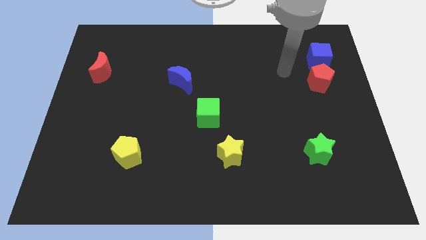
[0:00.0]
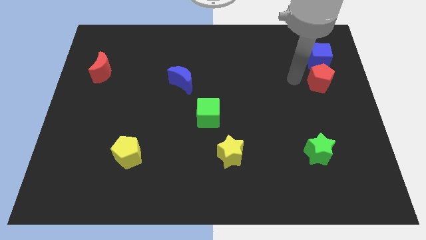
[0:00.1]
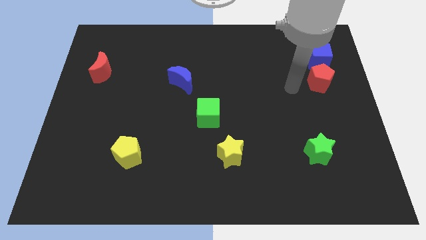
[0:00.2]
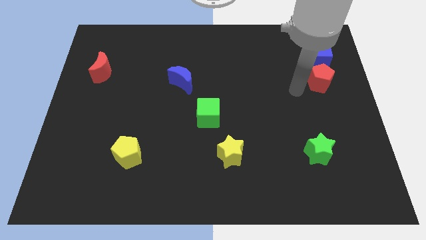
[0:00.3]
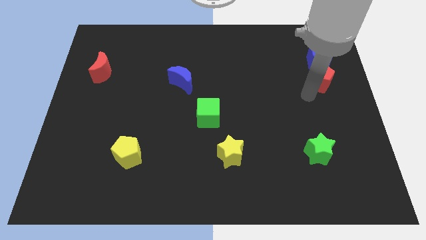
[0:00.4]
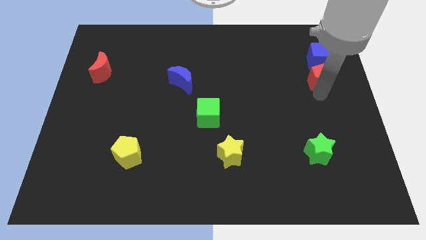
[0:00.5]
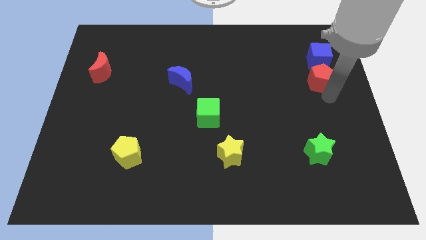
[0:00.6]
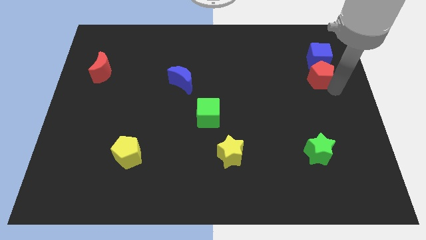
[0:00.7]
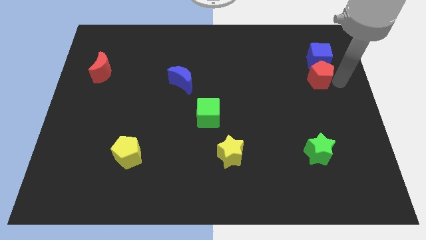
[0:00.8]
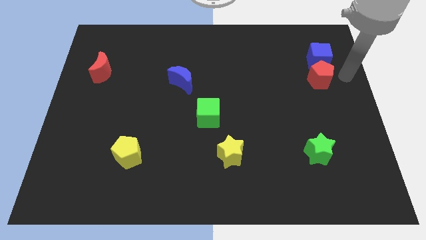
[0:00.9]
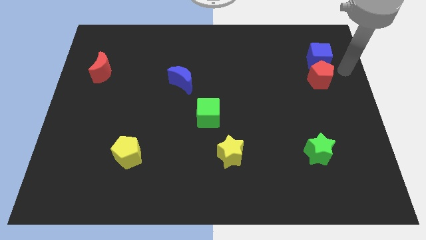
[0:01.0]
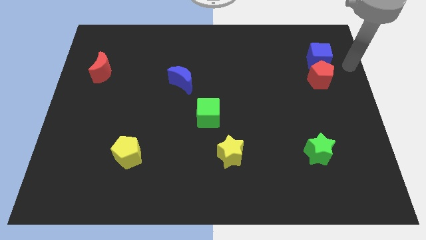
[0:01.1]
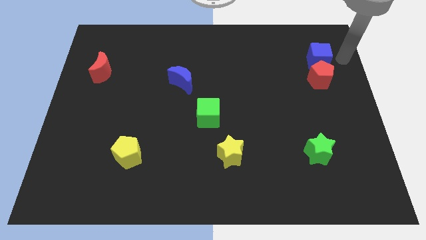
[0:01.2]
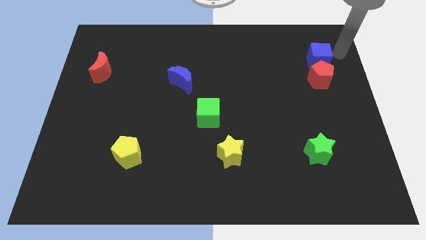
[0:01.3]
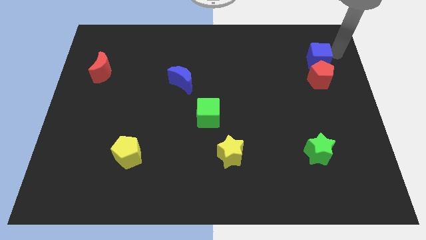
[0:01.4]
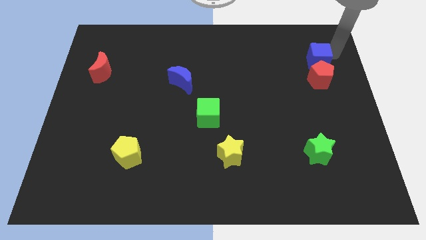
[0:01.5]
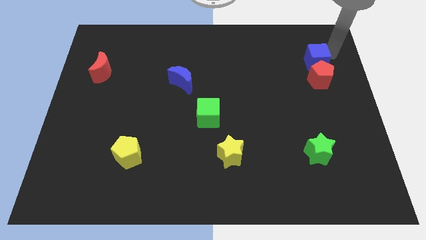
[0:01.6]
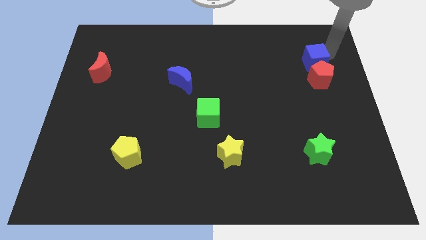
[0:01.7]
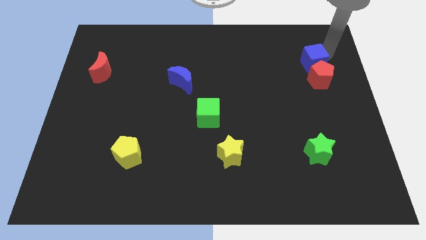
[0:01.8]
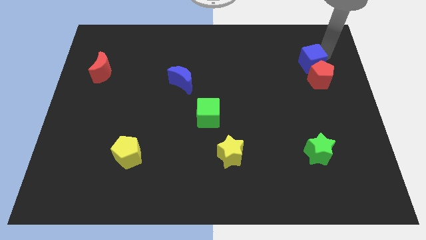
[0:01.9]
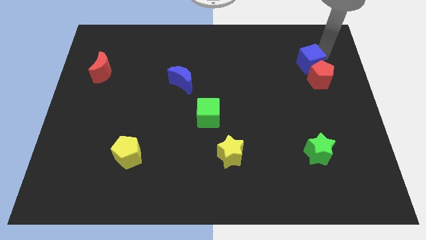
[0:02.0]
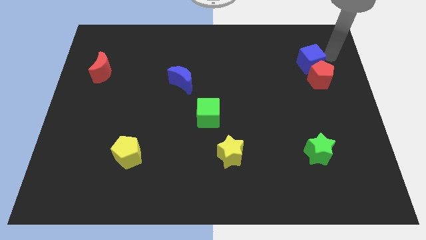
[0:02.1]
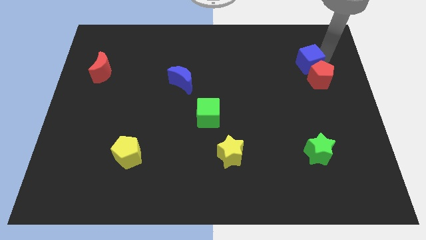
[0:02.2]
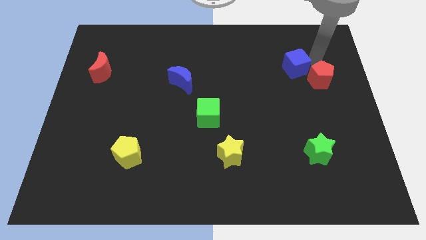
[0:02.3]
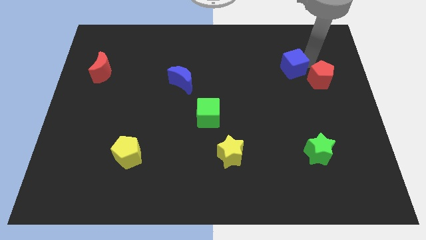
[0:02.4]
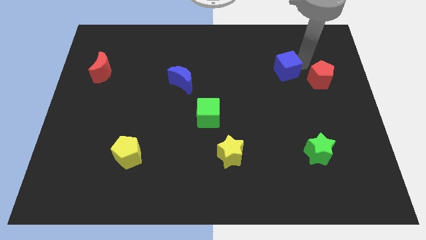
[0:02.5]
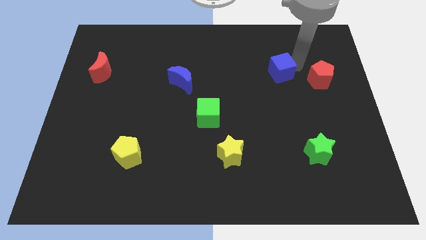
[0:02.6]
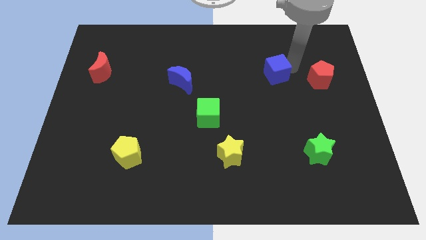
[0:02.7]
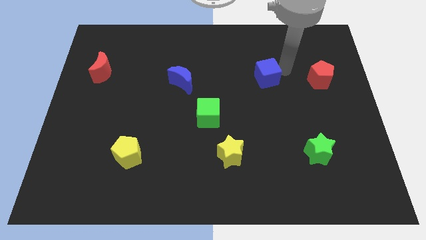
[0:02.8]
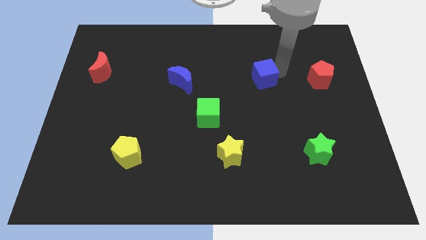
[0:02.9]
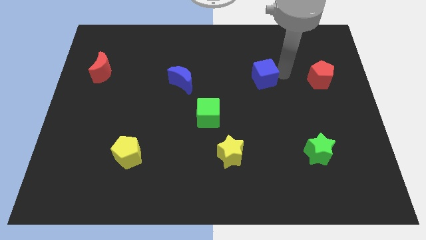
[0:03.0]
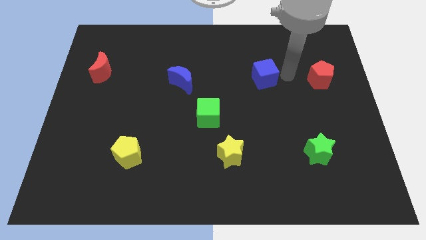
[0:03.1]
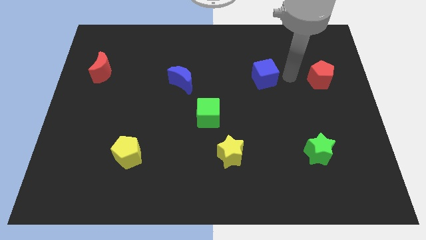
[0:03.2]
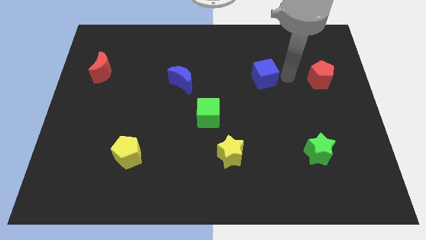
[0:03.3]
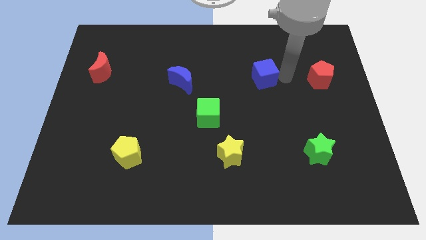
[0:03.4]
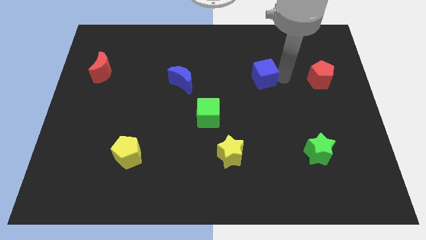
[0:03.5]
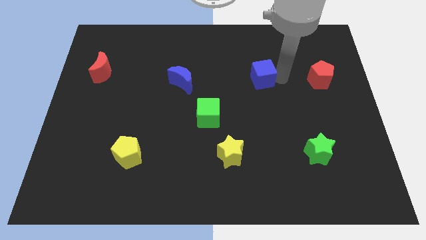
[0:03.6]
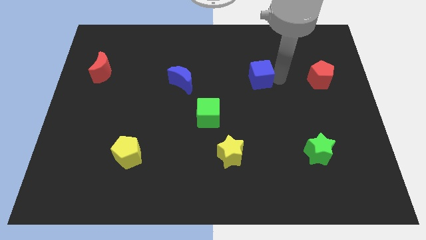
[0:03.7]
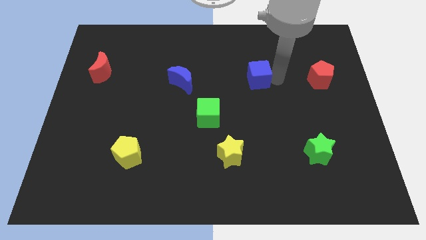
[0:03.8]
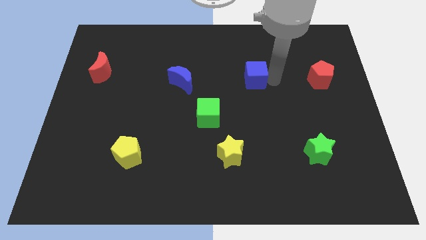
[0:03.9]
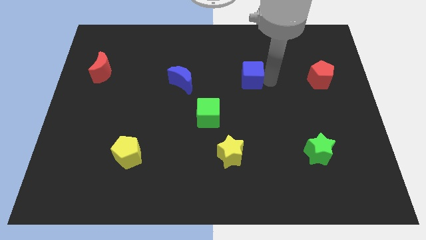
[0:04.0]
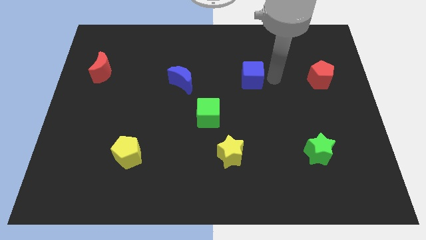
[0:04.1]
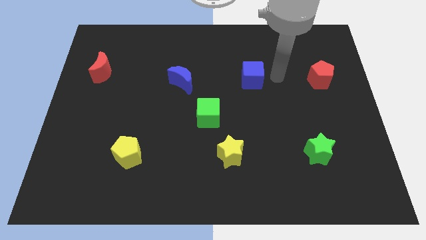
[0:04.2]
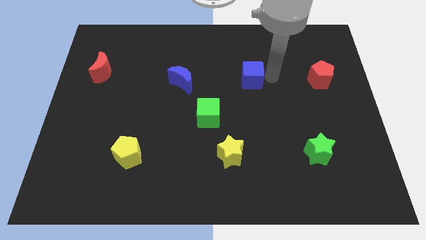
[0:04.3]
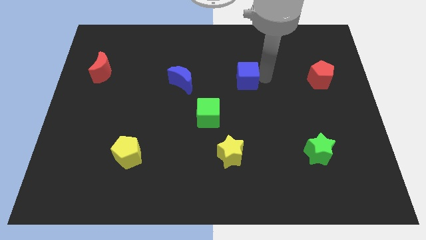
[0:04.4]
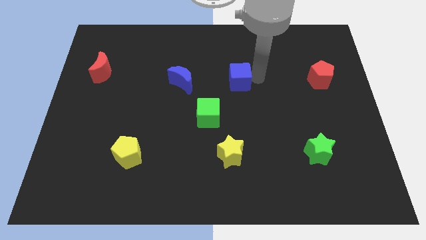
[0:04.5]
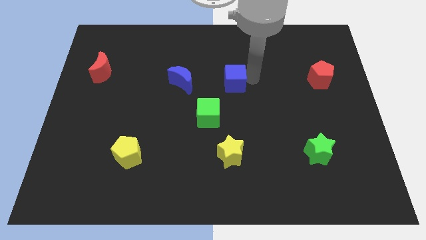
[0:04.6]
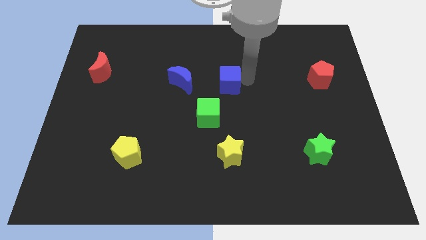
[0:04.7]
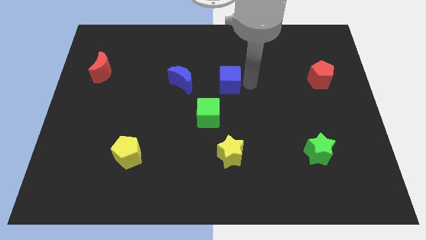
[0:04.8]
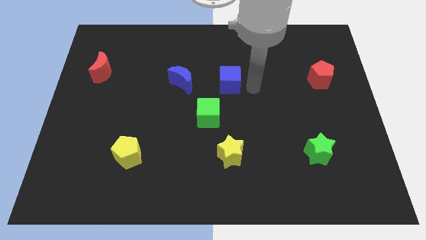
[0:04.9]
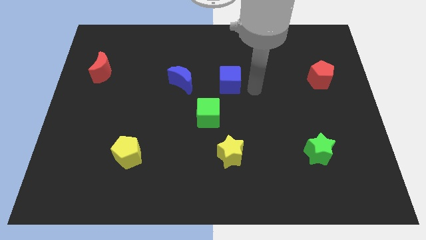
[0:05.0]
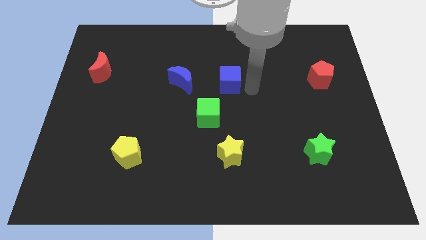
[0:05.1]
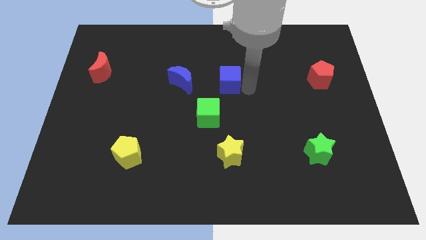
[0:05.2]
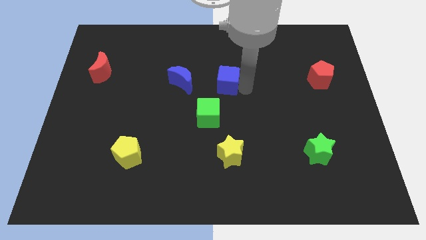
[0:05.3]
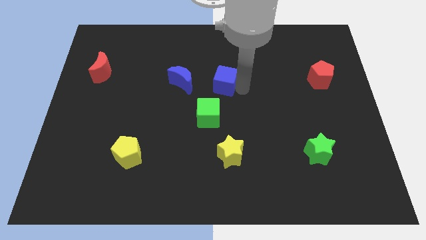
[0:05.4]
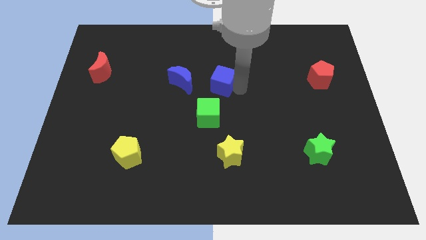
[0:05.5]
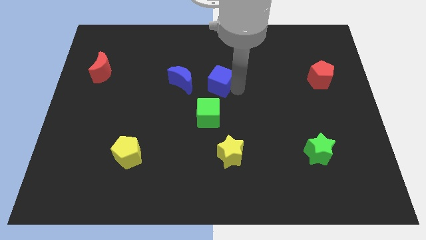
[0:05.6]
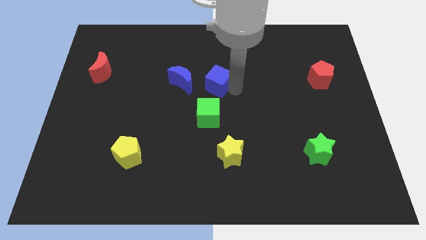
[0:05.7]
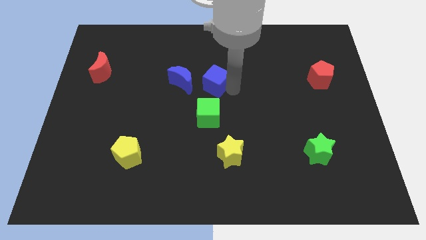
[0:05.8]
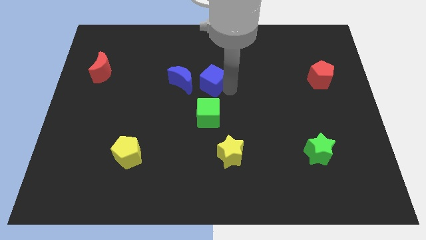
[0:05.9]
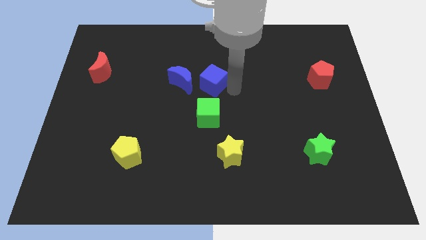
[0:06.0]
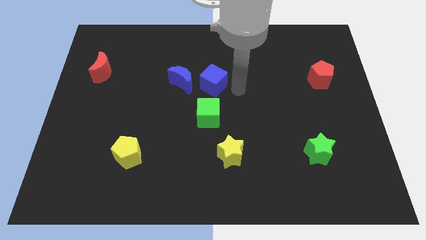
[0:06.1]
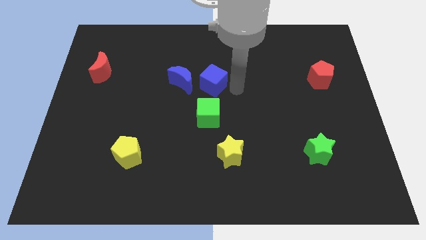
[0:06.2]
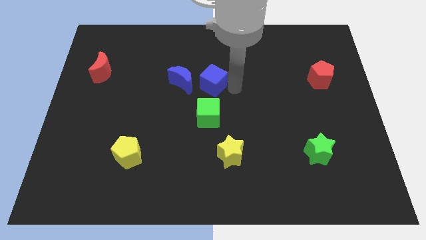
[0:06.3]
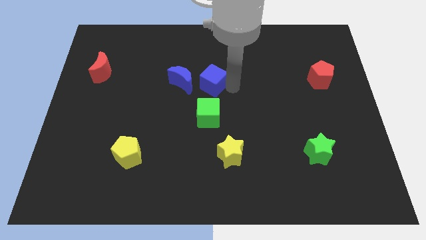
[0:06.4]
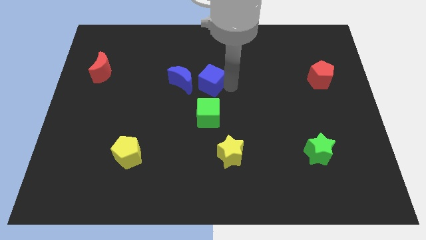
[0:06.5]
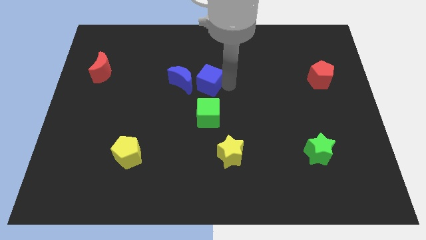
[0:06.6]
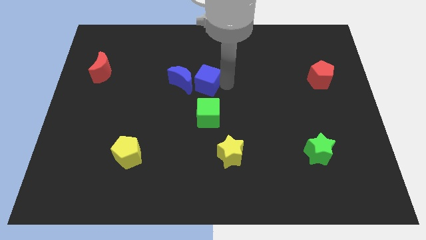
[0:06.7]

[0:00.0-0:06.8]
put the blue cube towards the blue moon

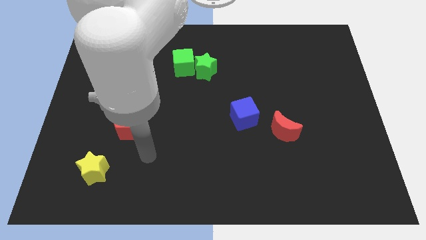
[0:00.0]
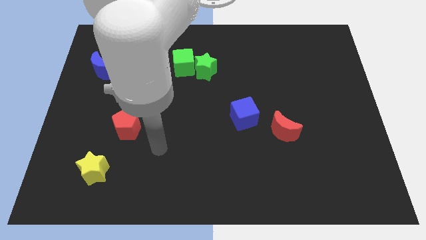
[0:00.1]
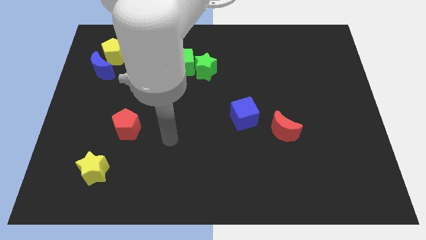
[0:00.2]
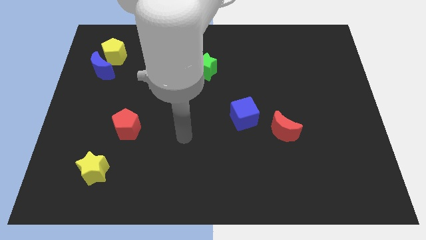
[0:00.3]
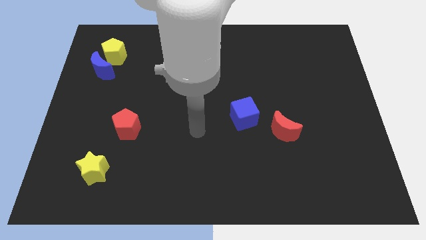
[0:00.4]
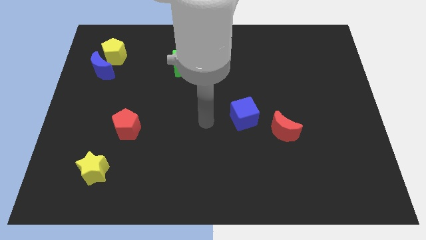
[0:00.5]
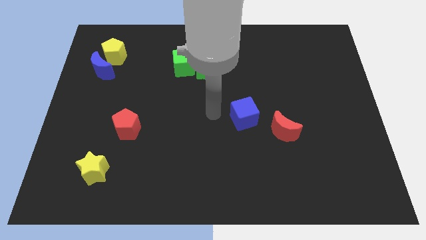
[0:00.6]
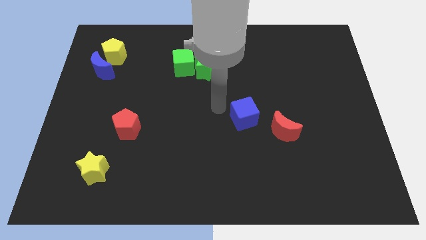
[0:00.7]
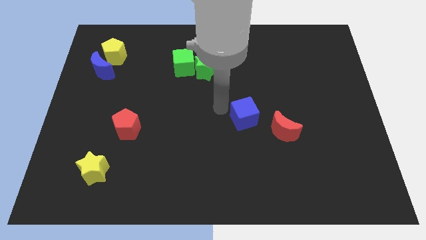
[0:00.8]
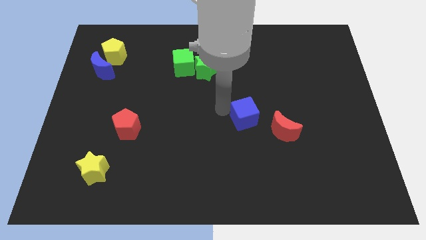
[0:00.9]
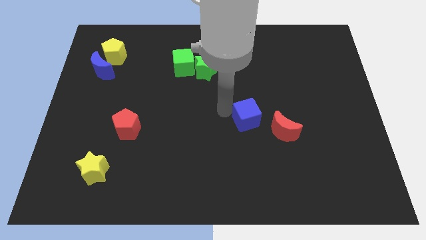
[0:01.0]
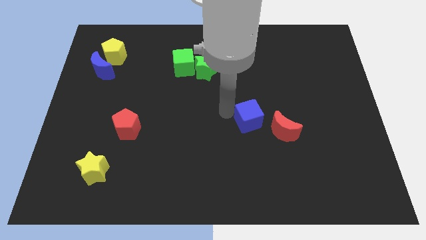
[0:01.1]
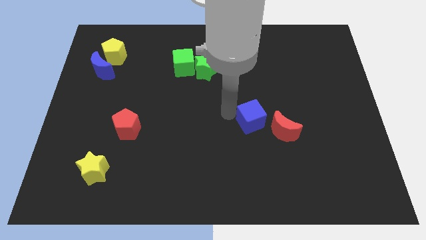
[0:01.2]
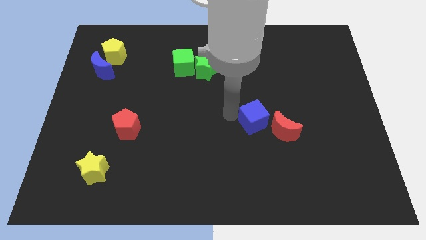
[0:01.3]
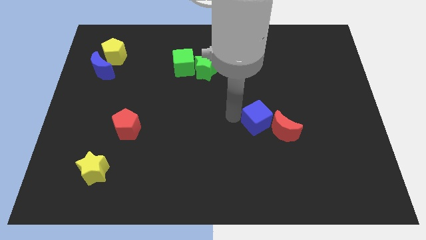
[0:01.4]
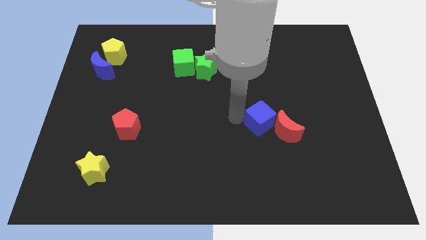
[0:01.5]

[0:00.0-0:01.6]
move the blue cube to the red moon

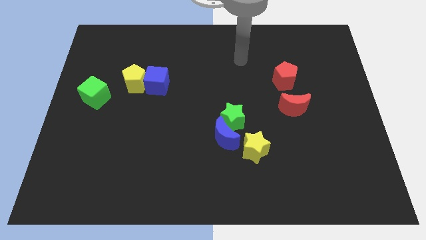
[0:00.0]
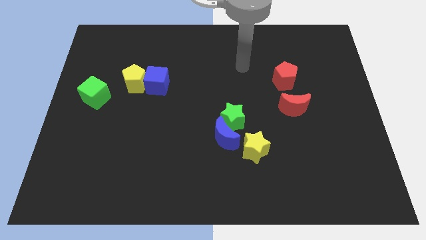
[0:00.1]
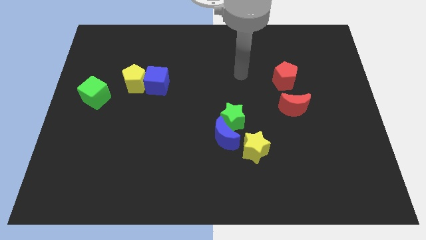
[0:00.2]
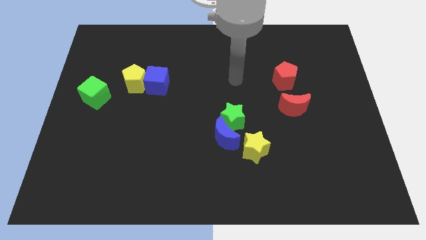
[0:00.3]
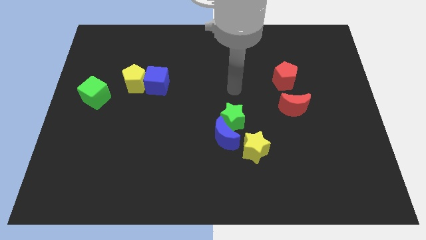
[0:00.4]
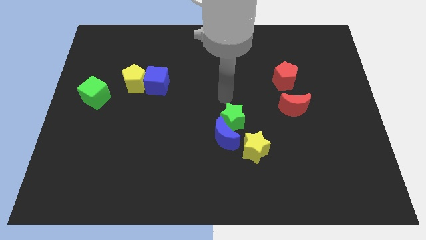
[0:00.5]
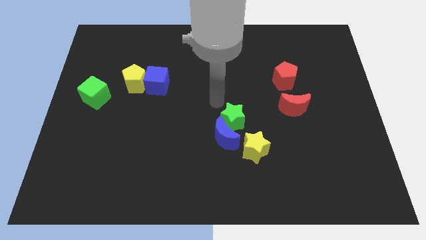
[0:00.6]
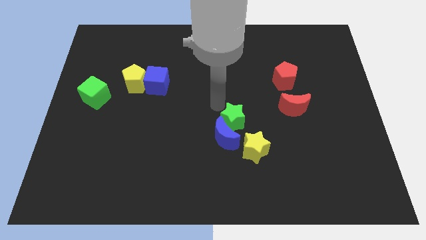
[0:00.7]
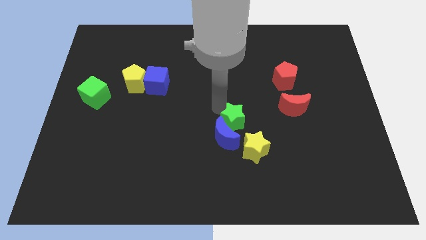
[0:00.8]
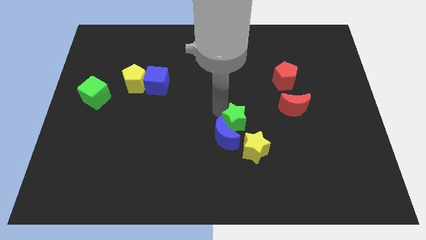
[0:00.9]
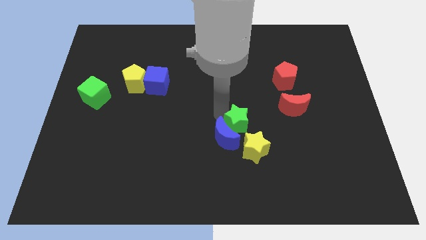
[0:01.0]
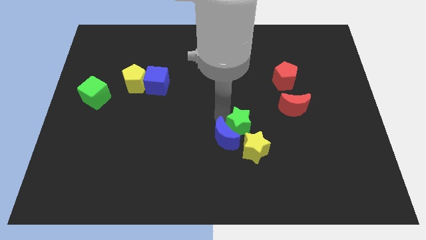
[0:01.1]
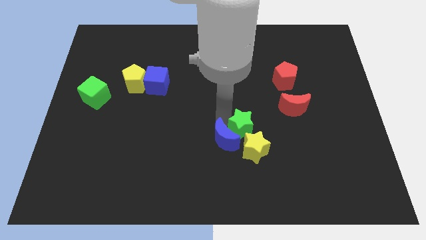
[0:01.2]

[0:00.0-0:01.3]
put the green star close to the yellow star
